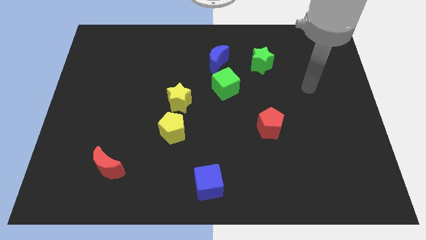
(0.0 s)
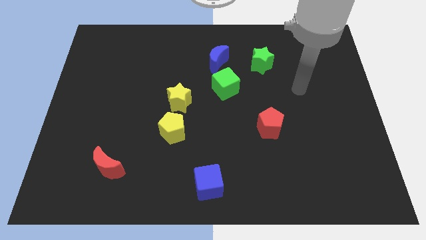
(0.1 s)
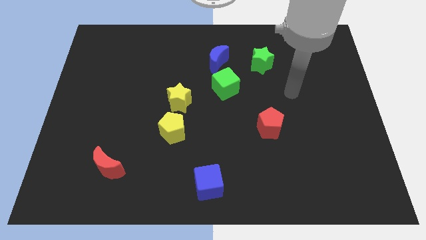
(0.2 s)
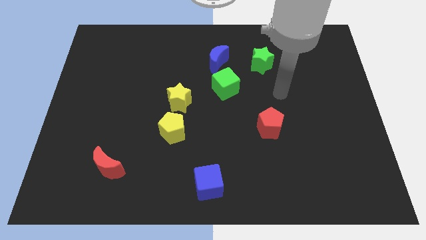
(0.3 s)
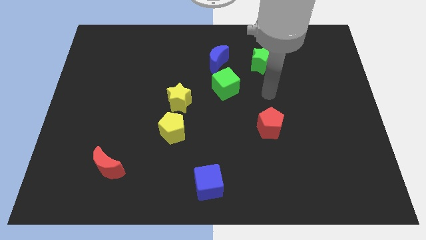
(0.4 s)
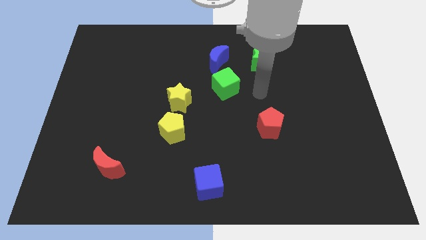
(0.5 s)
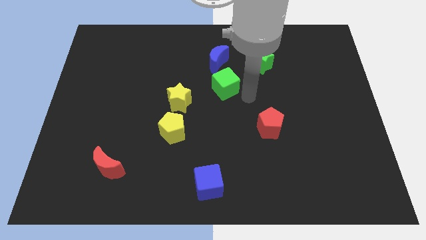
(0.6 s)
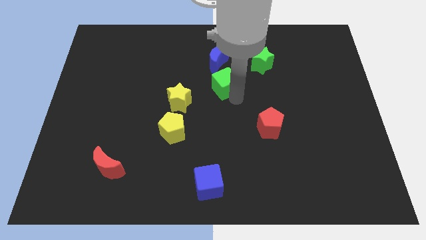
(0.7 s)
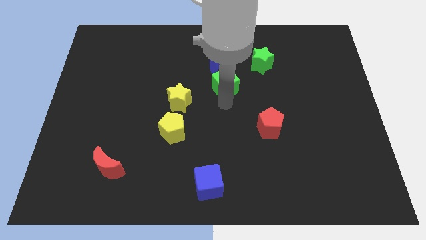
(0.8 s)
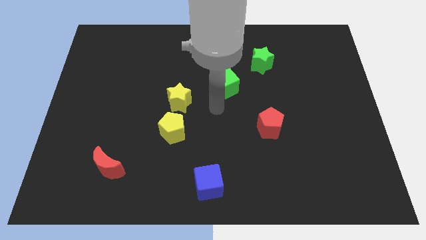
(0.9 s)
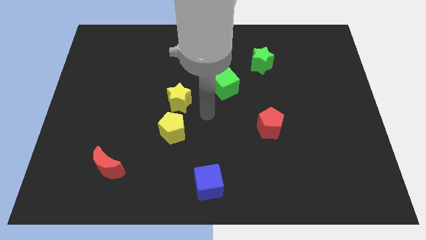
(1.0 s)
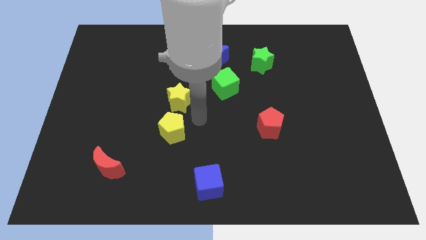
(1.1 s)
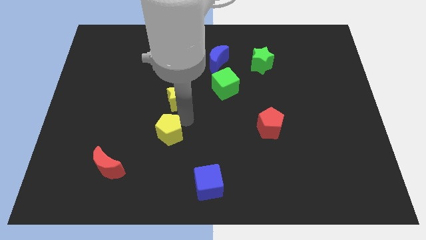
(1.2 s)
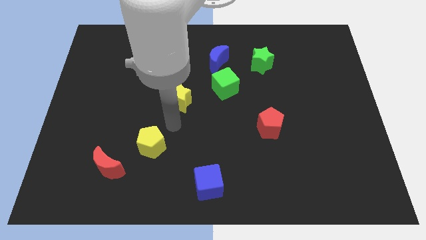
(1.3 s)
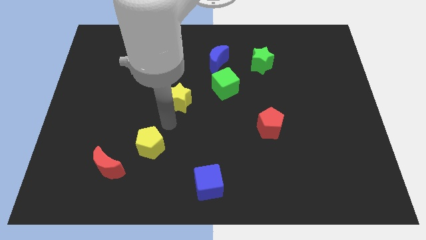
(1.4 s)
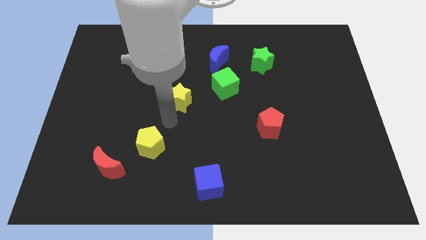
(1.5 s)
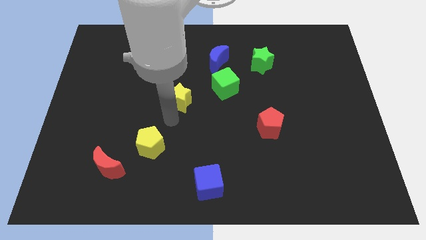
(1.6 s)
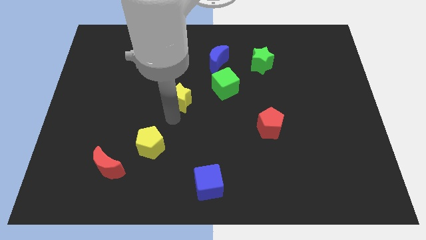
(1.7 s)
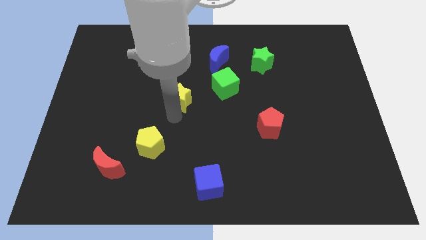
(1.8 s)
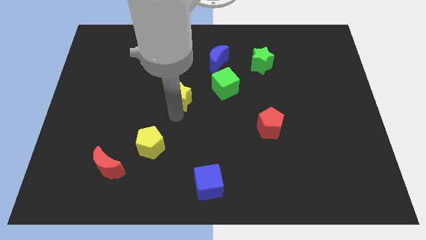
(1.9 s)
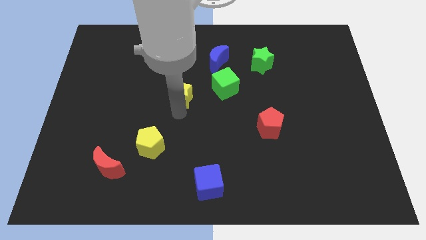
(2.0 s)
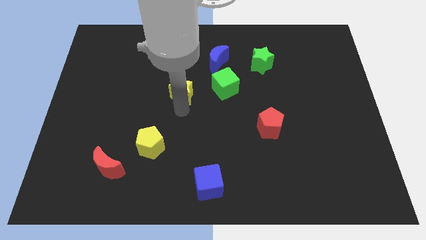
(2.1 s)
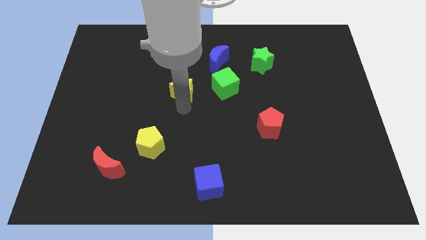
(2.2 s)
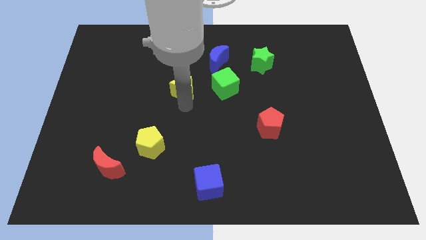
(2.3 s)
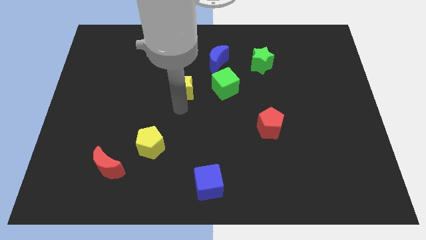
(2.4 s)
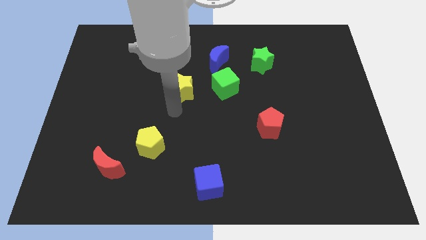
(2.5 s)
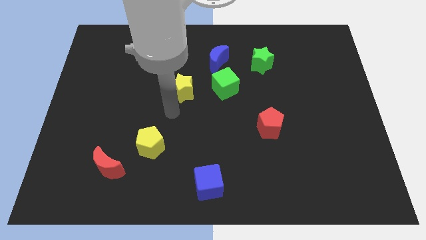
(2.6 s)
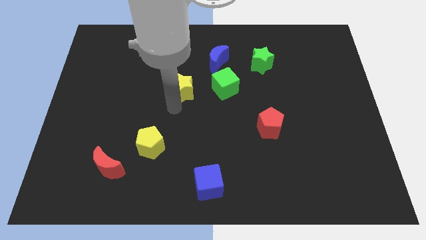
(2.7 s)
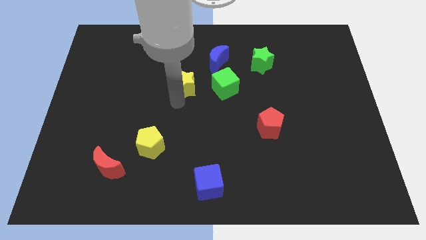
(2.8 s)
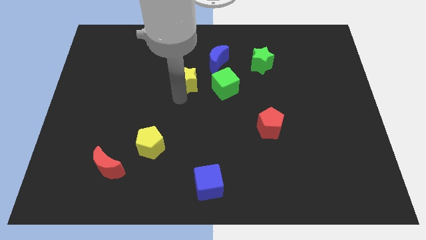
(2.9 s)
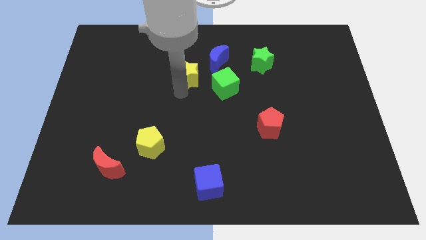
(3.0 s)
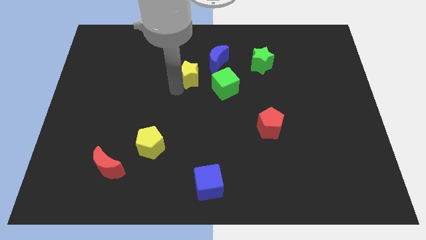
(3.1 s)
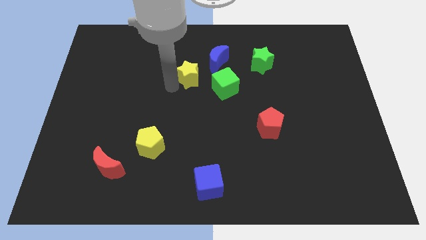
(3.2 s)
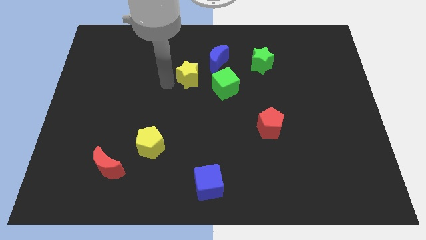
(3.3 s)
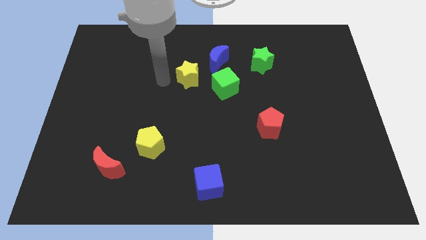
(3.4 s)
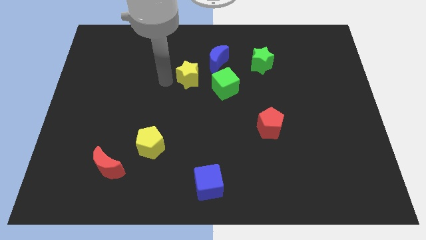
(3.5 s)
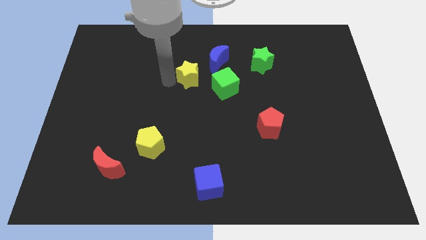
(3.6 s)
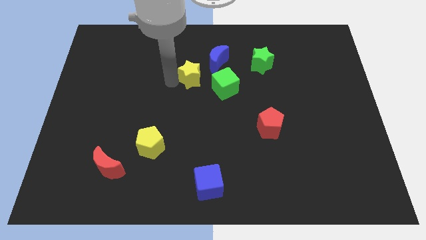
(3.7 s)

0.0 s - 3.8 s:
slide the yellow star somewhat diagonally up and to the right

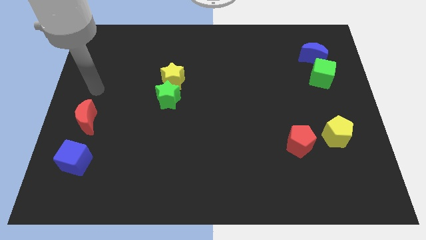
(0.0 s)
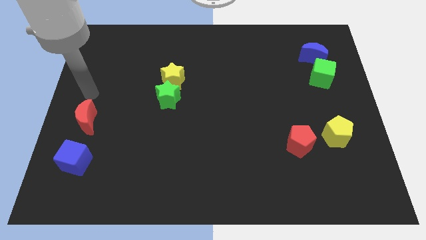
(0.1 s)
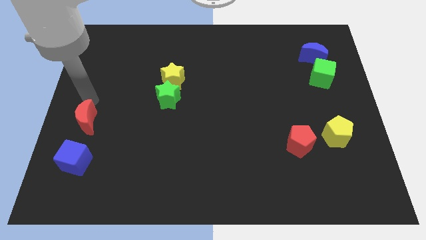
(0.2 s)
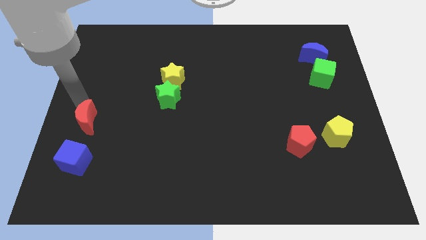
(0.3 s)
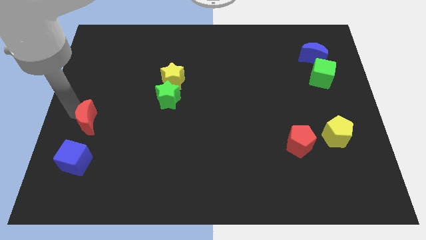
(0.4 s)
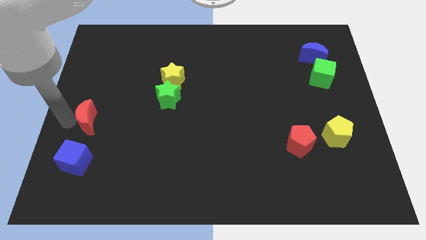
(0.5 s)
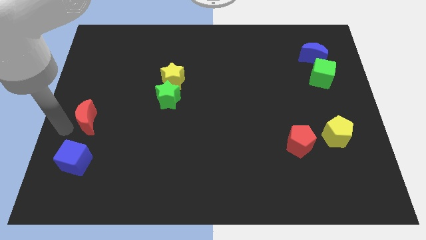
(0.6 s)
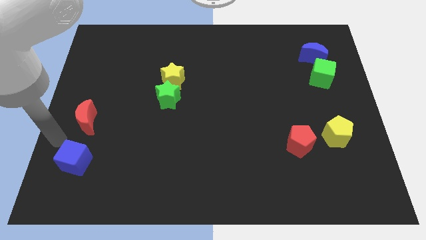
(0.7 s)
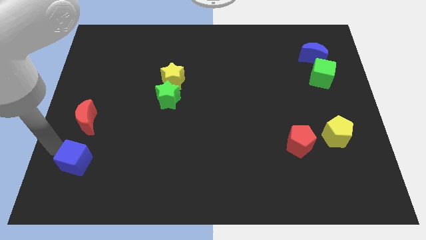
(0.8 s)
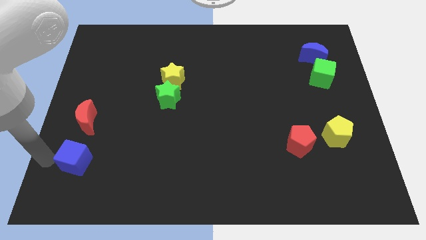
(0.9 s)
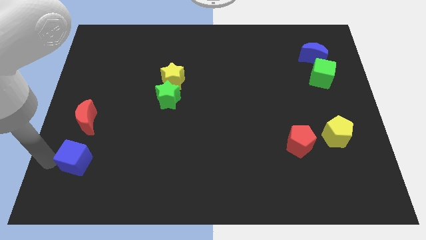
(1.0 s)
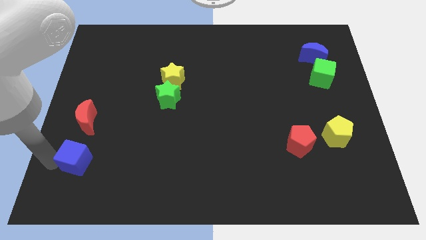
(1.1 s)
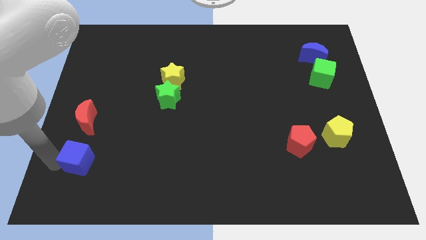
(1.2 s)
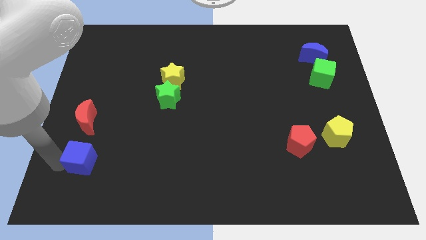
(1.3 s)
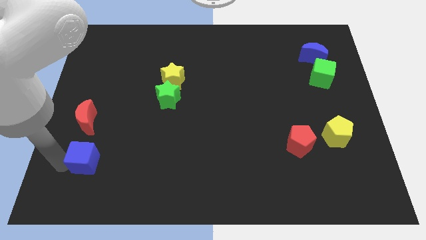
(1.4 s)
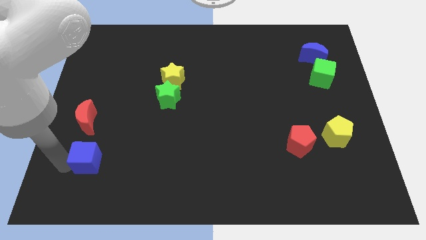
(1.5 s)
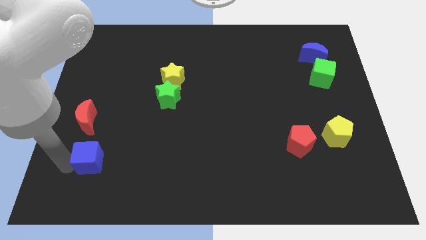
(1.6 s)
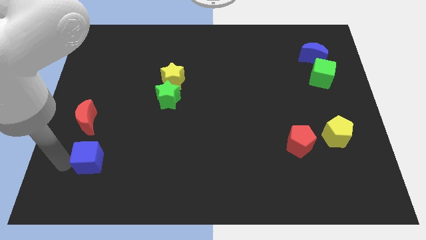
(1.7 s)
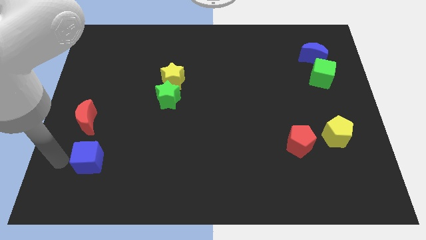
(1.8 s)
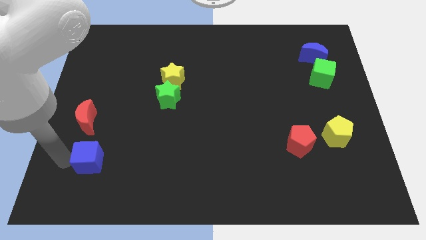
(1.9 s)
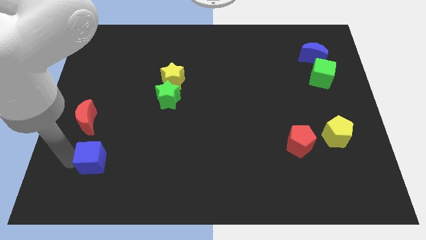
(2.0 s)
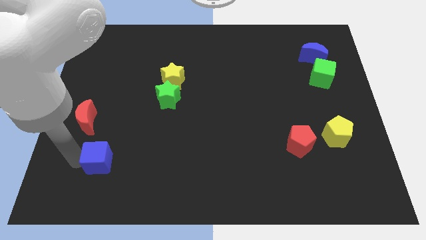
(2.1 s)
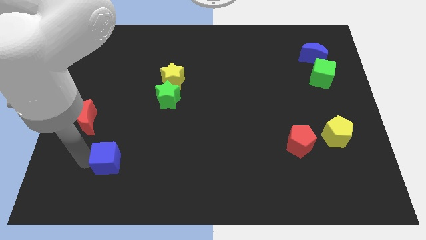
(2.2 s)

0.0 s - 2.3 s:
slightly slide the blue cube right

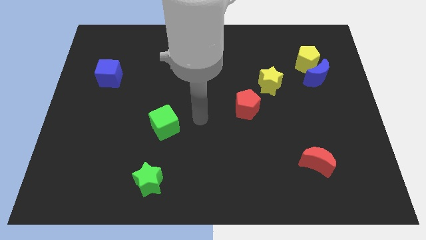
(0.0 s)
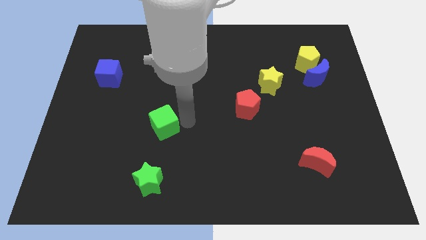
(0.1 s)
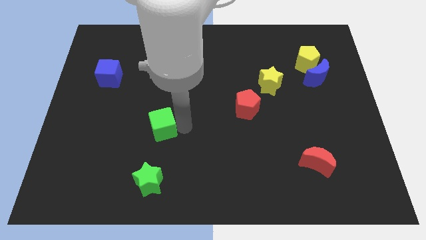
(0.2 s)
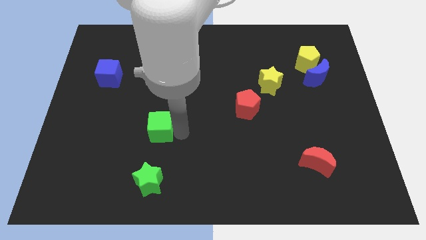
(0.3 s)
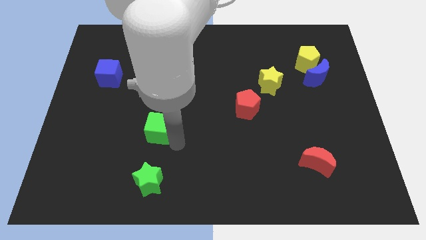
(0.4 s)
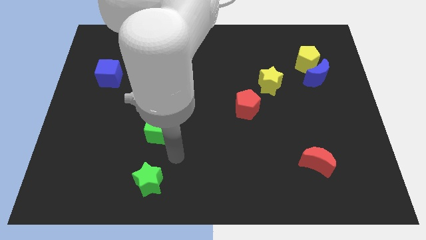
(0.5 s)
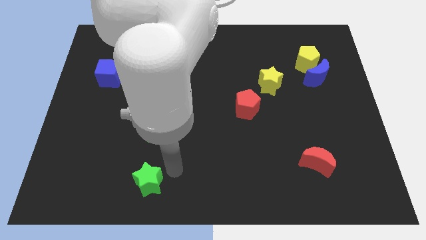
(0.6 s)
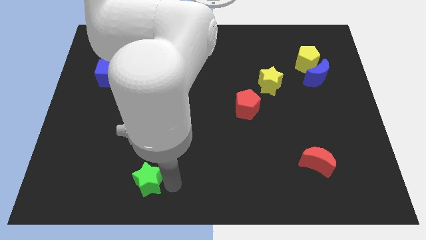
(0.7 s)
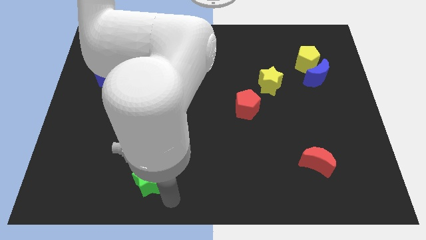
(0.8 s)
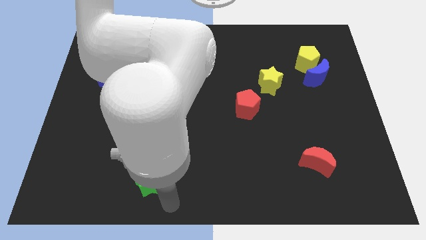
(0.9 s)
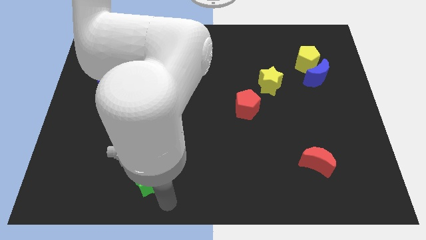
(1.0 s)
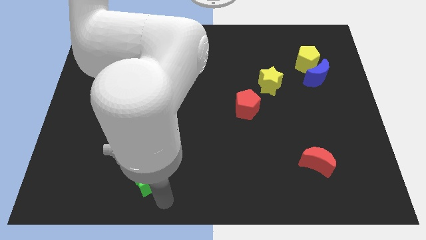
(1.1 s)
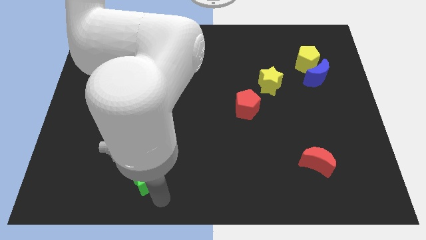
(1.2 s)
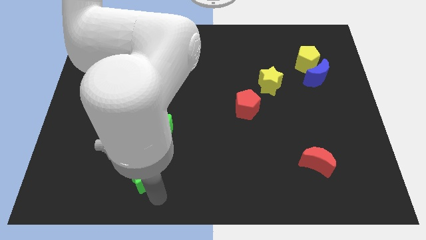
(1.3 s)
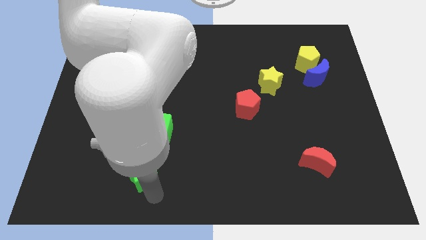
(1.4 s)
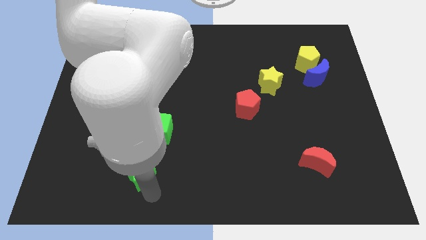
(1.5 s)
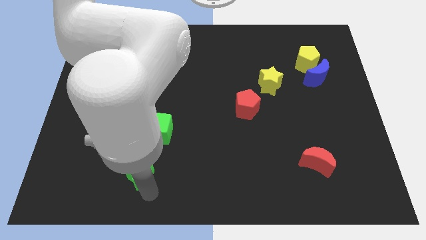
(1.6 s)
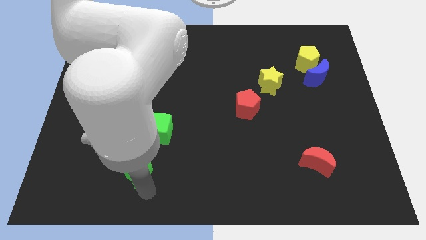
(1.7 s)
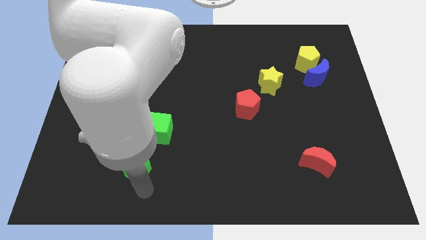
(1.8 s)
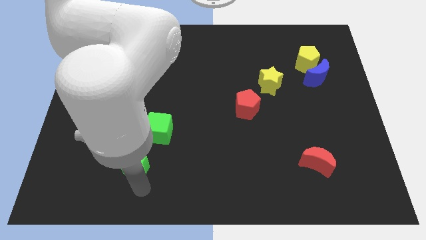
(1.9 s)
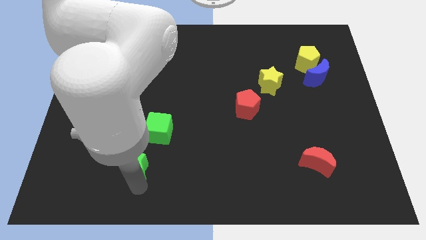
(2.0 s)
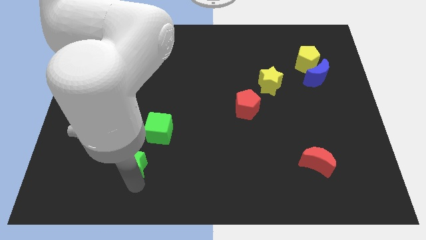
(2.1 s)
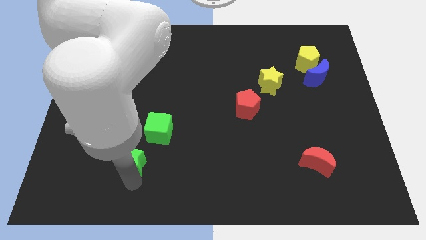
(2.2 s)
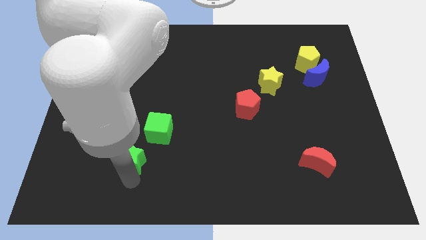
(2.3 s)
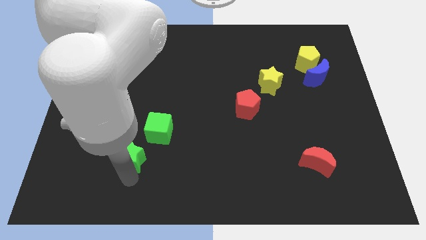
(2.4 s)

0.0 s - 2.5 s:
push the green star somewhat upwards and then to the left
